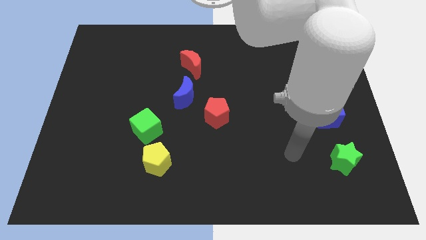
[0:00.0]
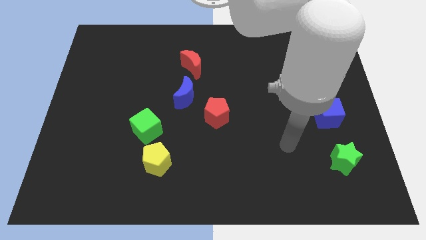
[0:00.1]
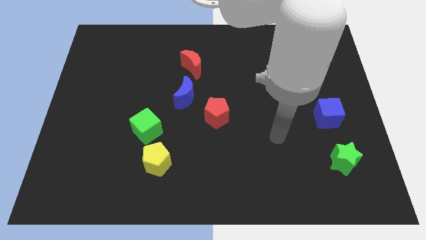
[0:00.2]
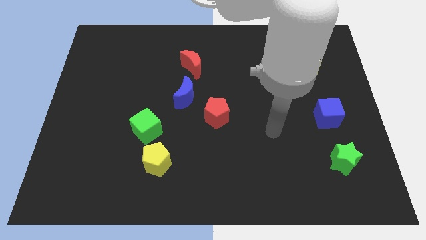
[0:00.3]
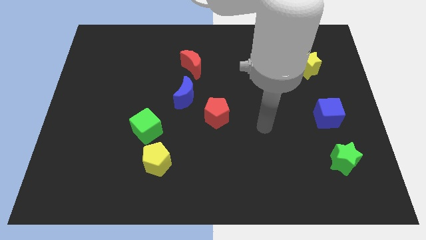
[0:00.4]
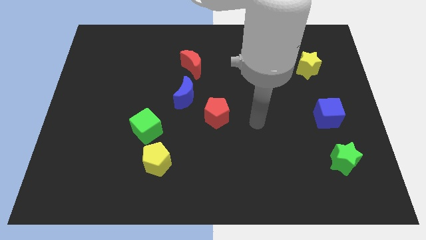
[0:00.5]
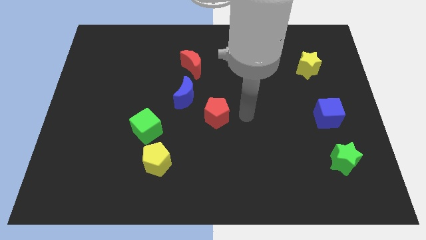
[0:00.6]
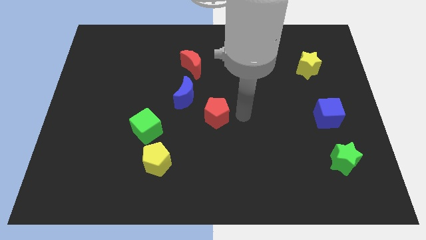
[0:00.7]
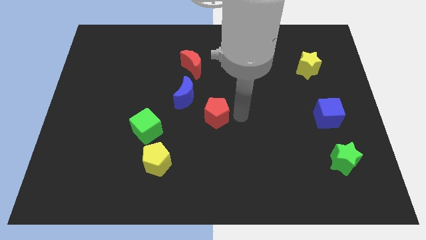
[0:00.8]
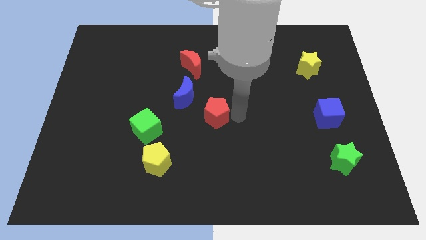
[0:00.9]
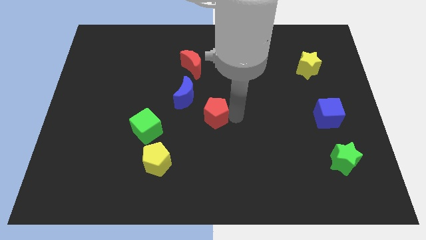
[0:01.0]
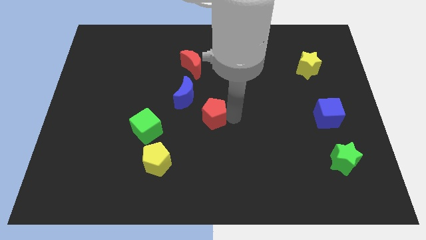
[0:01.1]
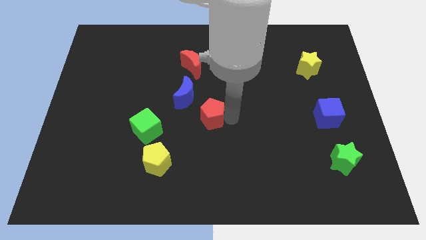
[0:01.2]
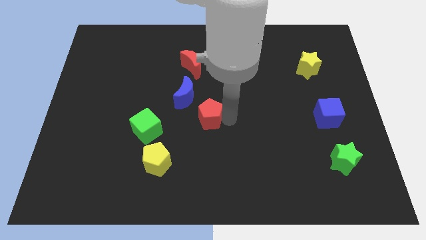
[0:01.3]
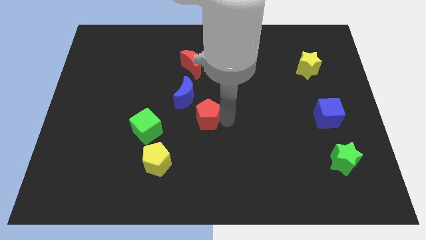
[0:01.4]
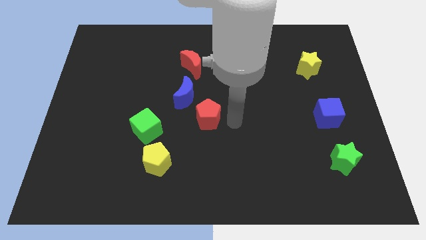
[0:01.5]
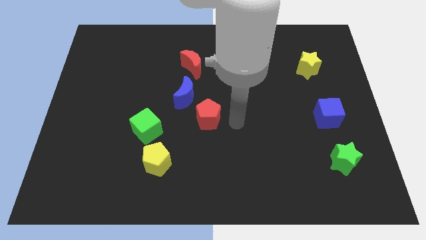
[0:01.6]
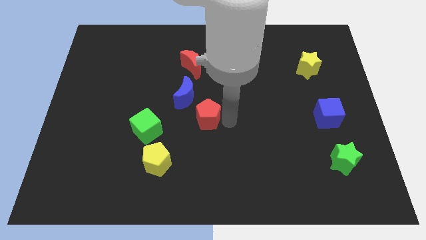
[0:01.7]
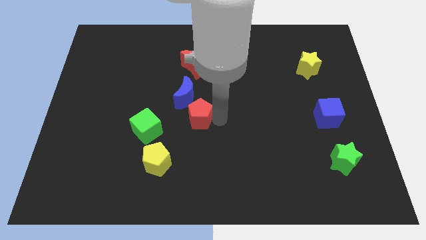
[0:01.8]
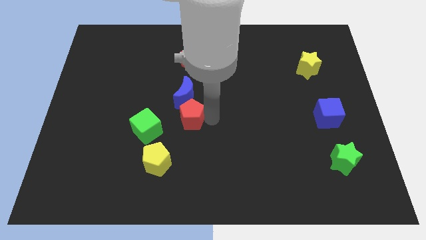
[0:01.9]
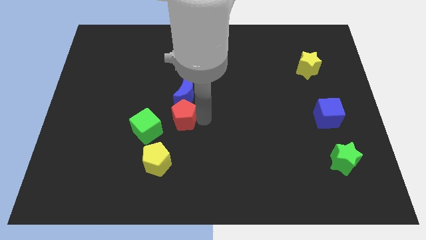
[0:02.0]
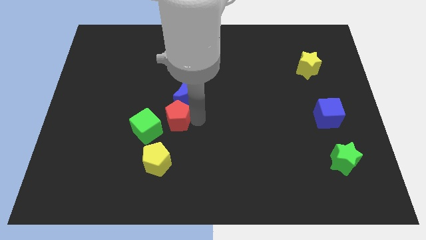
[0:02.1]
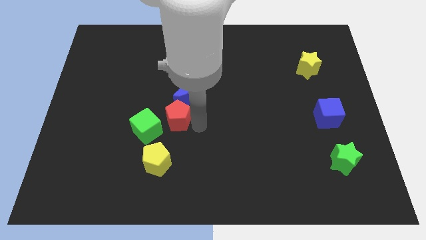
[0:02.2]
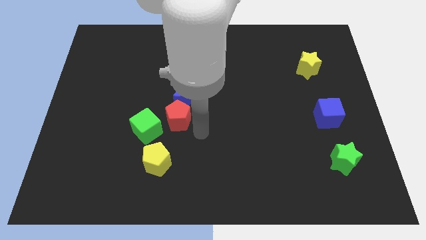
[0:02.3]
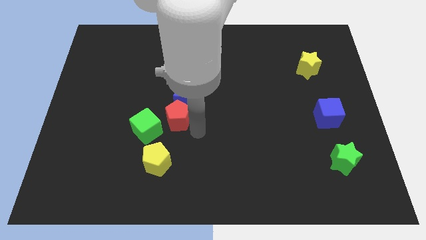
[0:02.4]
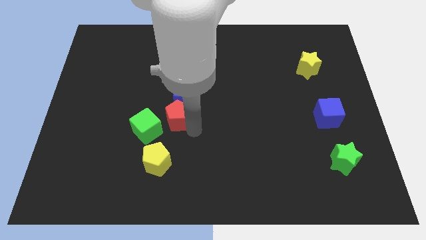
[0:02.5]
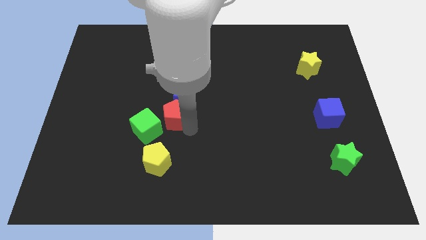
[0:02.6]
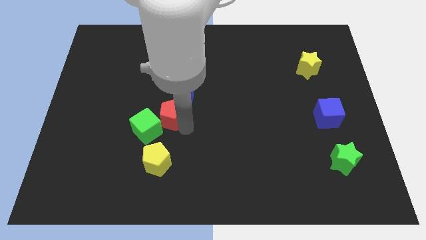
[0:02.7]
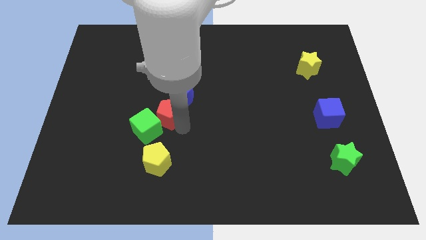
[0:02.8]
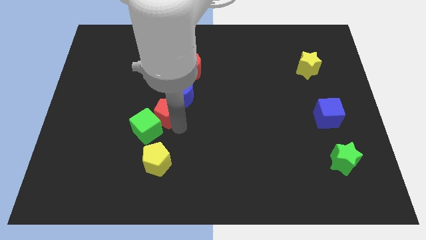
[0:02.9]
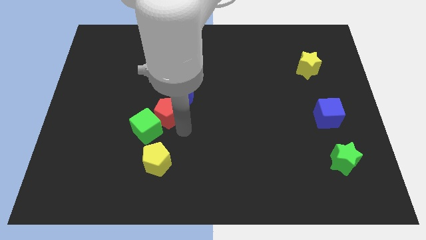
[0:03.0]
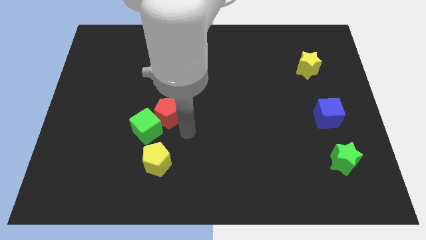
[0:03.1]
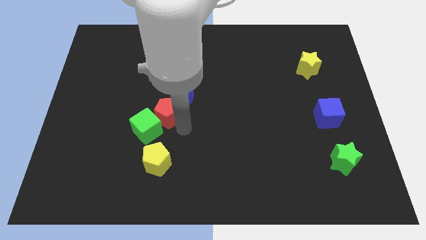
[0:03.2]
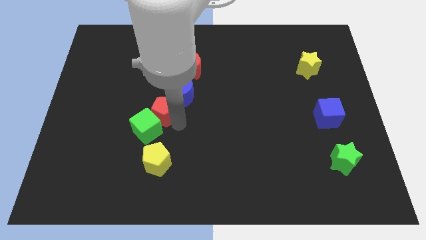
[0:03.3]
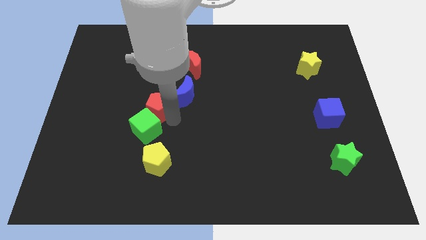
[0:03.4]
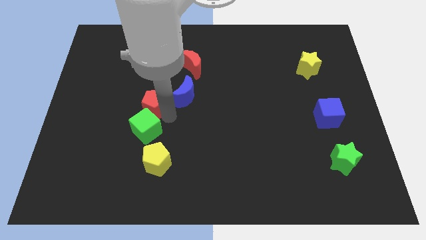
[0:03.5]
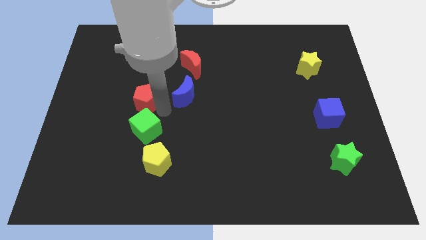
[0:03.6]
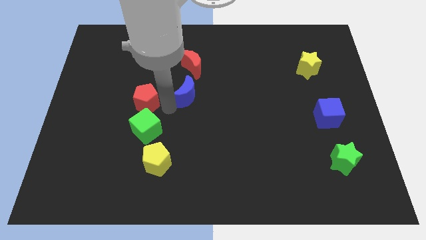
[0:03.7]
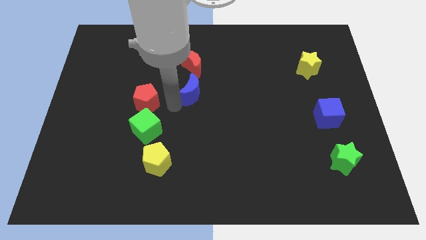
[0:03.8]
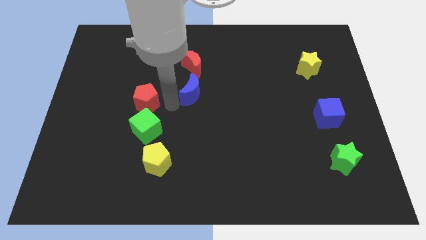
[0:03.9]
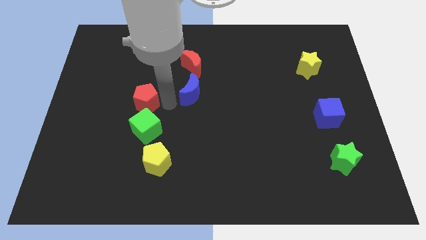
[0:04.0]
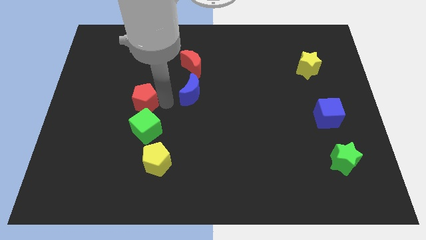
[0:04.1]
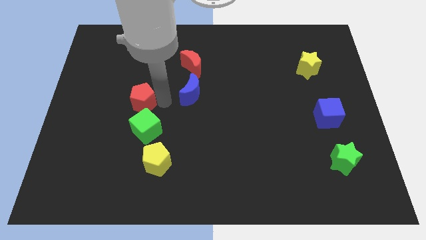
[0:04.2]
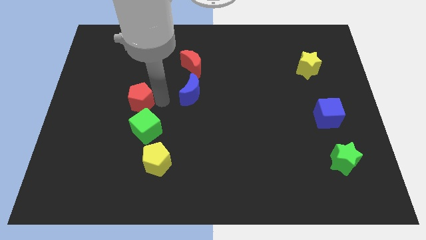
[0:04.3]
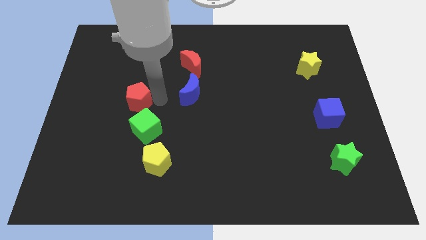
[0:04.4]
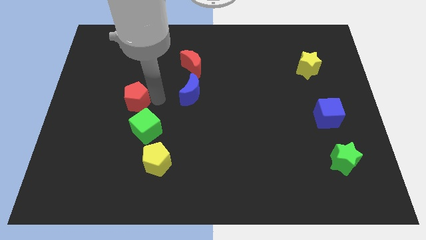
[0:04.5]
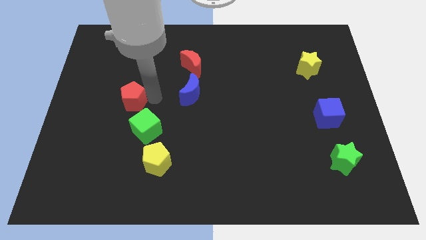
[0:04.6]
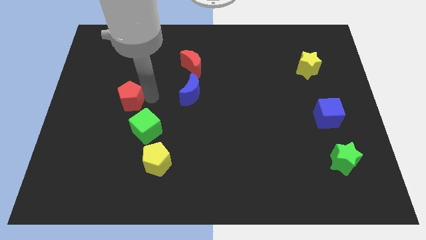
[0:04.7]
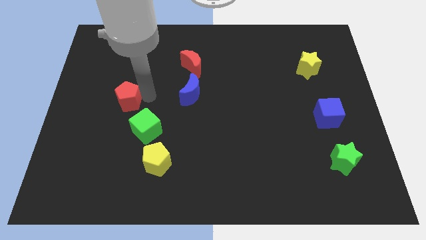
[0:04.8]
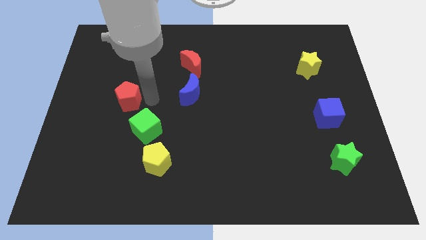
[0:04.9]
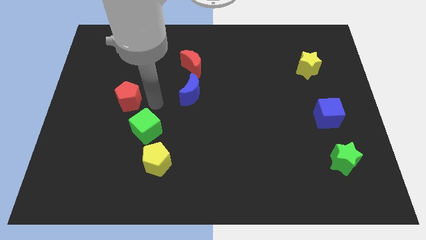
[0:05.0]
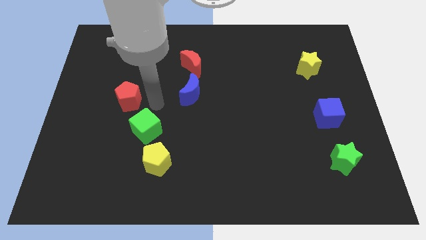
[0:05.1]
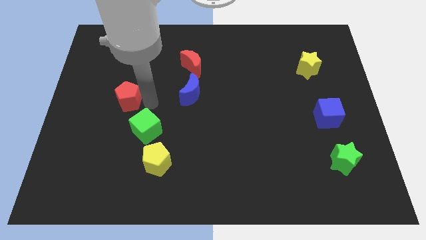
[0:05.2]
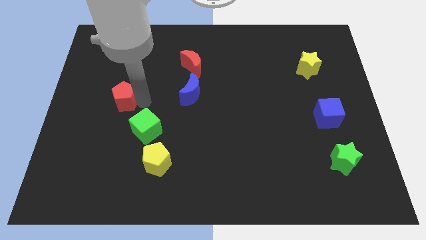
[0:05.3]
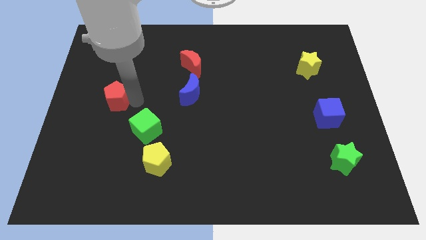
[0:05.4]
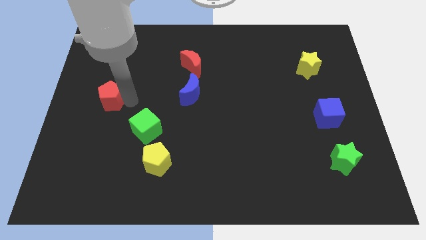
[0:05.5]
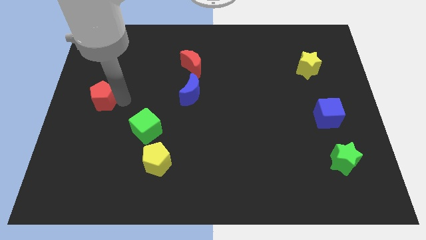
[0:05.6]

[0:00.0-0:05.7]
slide the red pentagon to the center left

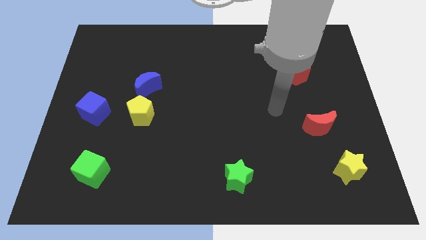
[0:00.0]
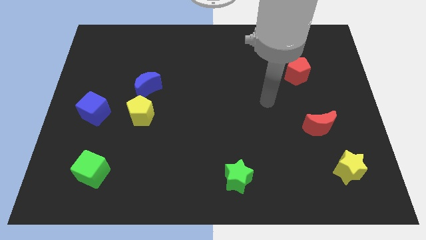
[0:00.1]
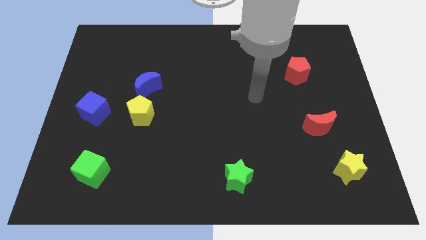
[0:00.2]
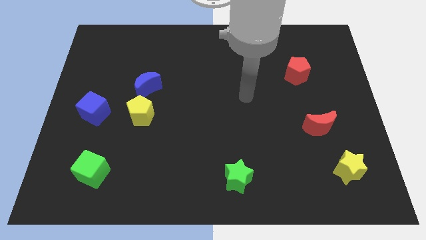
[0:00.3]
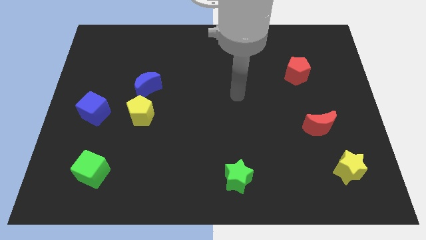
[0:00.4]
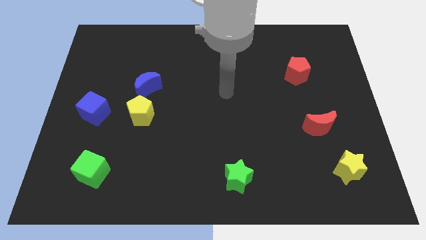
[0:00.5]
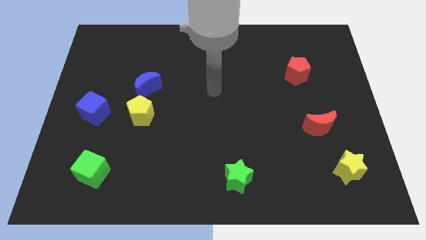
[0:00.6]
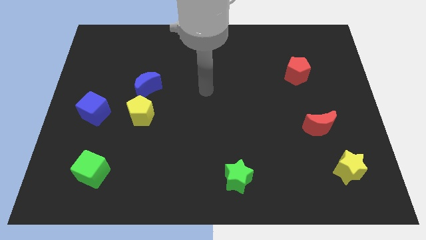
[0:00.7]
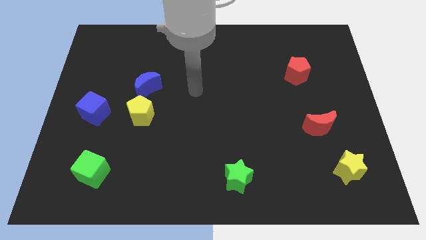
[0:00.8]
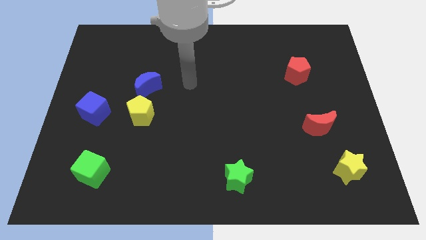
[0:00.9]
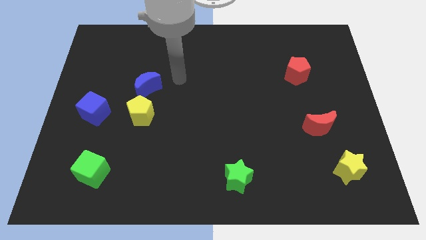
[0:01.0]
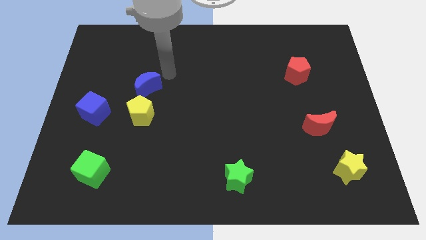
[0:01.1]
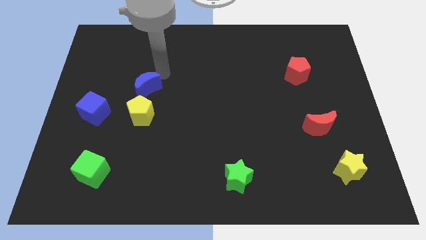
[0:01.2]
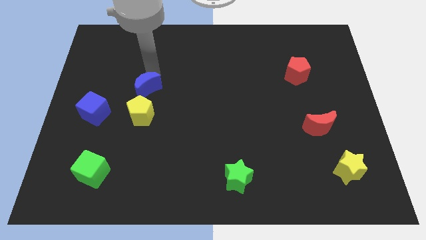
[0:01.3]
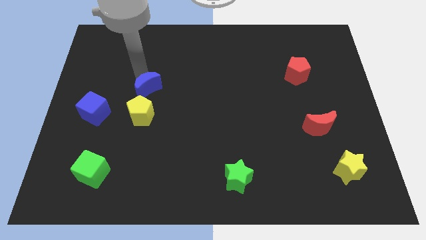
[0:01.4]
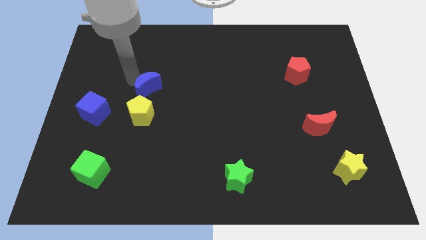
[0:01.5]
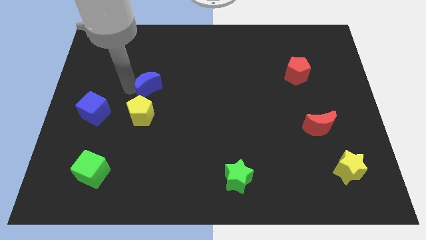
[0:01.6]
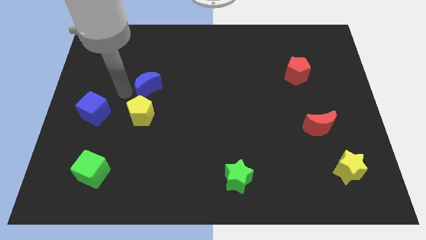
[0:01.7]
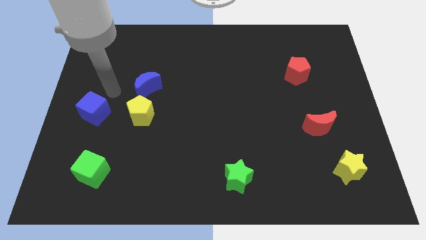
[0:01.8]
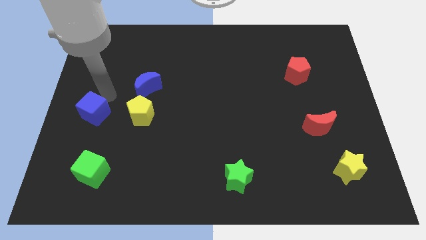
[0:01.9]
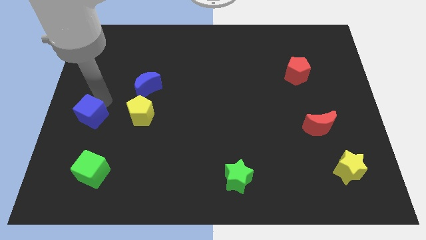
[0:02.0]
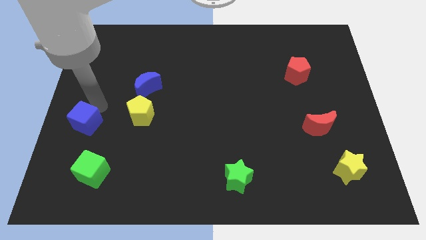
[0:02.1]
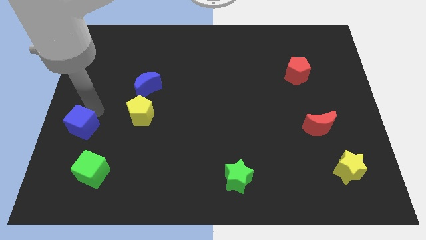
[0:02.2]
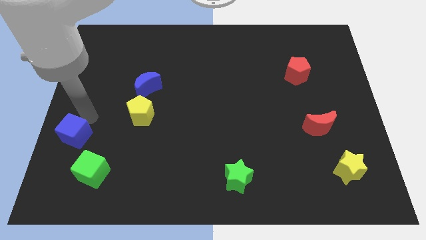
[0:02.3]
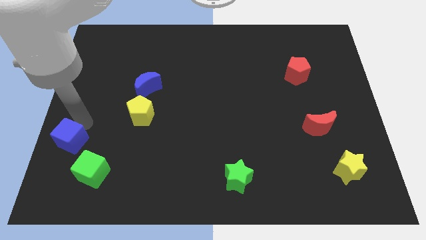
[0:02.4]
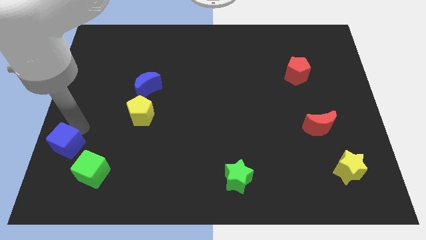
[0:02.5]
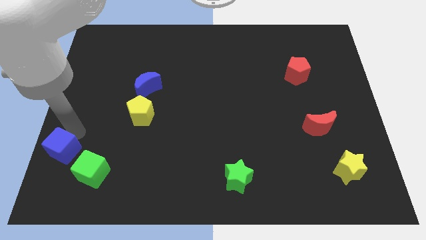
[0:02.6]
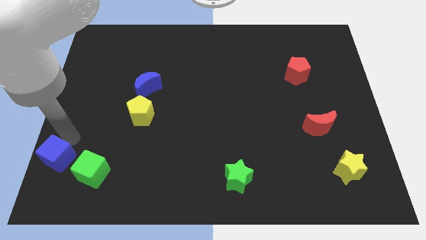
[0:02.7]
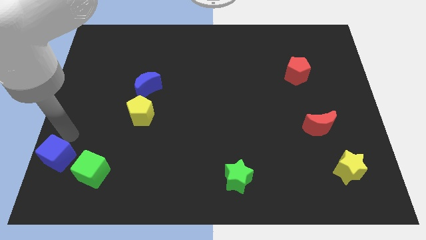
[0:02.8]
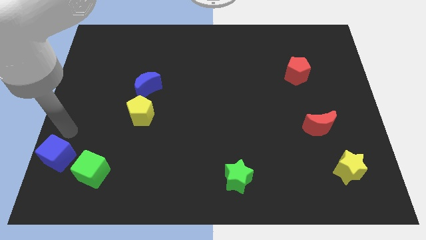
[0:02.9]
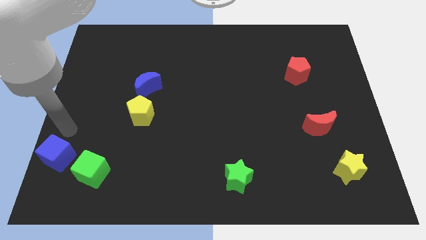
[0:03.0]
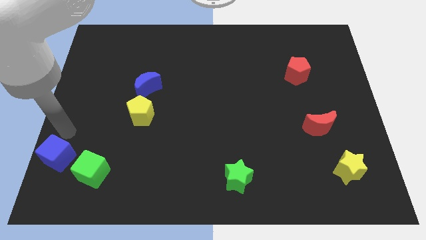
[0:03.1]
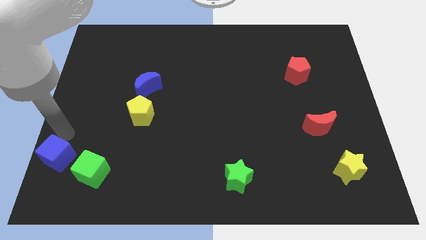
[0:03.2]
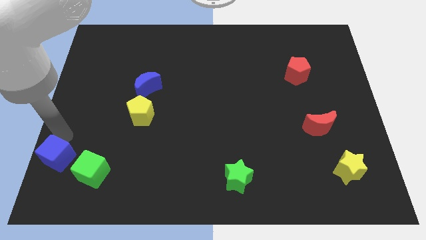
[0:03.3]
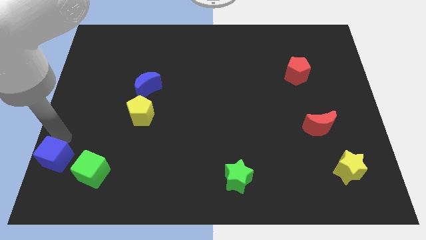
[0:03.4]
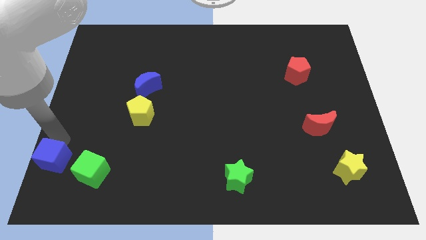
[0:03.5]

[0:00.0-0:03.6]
put the blue cube to the bottom left corner
